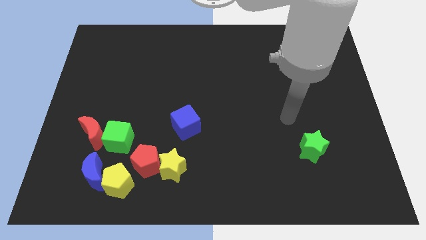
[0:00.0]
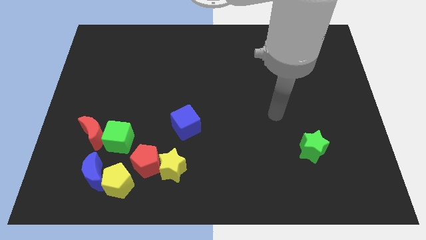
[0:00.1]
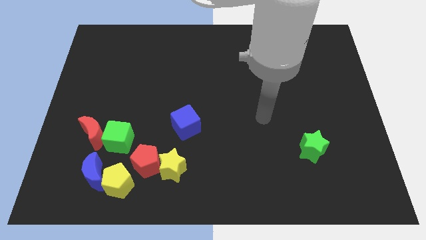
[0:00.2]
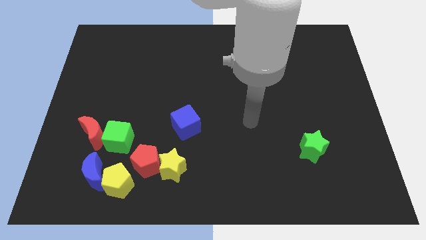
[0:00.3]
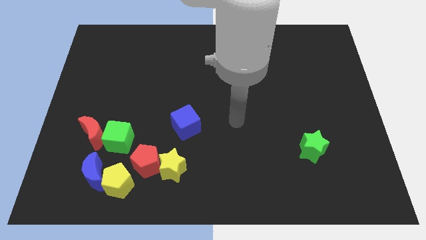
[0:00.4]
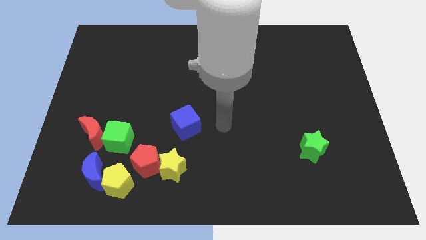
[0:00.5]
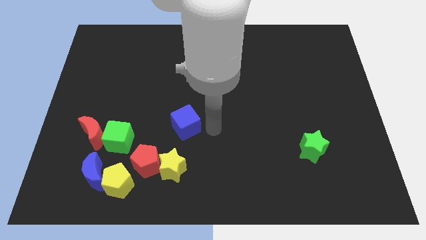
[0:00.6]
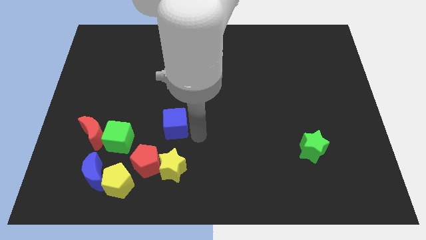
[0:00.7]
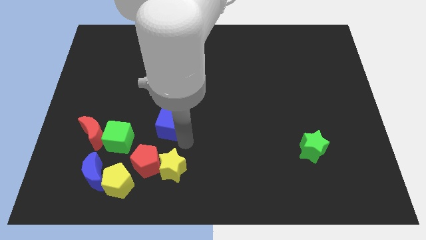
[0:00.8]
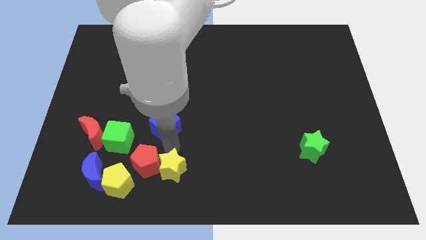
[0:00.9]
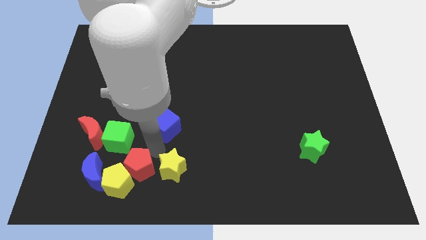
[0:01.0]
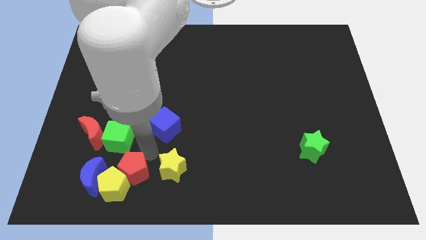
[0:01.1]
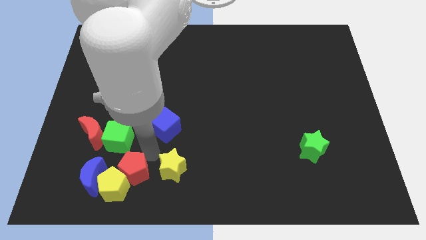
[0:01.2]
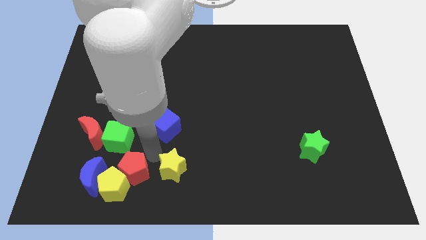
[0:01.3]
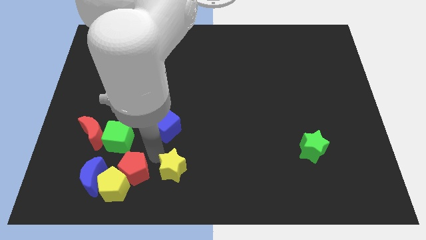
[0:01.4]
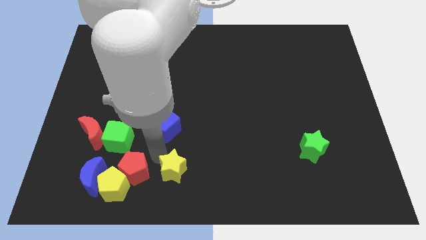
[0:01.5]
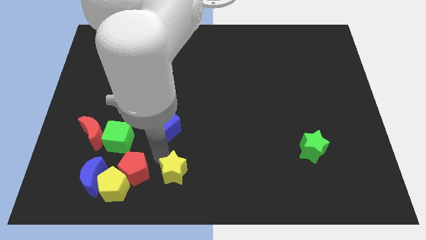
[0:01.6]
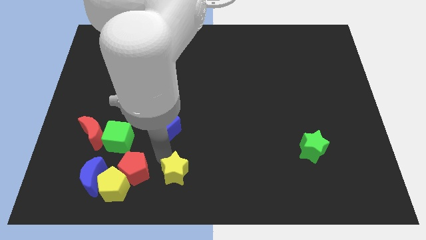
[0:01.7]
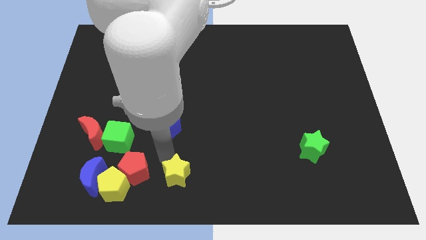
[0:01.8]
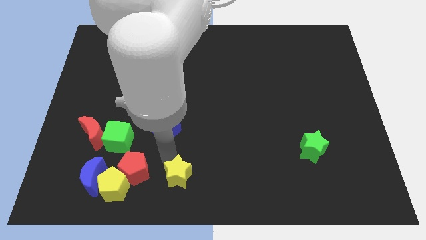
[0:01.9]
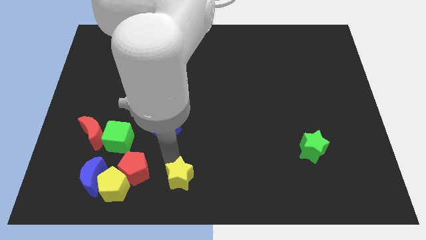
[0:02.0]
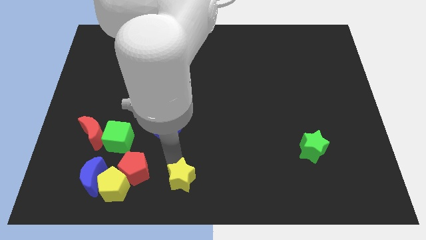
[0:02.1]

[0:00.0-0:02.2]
pull the yellow star apart from the red pentagon

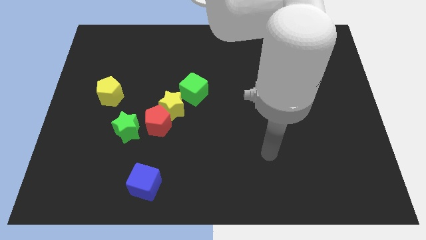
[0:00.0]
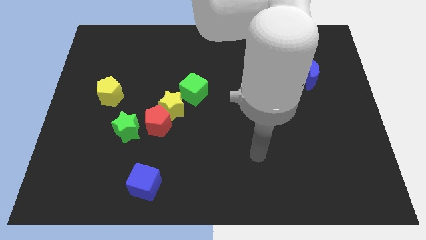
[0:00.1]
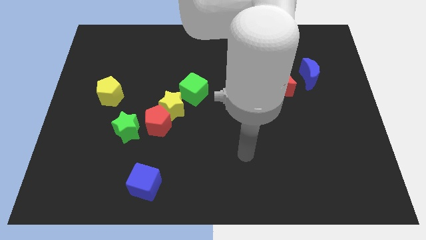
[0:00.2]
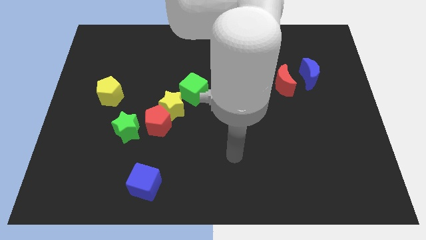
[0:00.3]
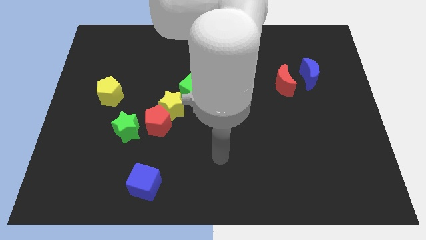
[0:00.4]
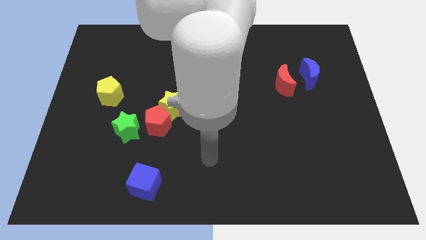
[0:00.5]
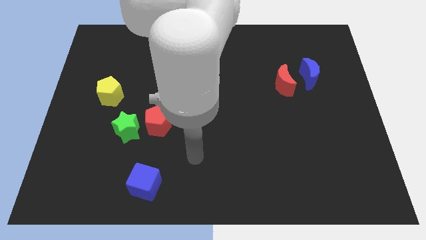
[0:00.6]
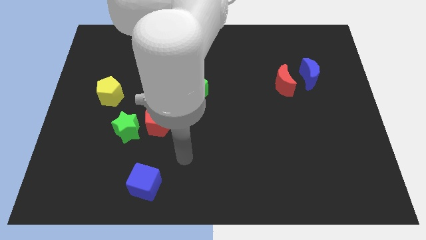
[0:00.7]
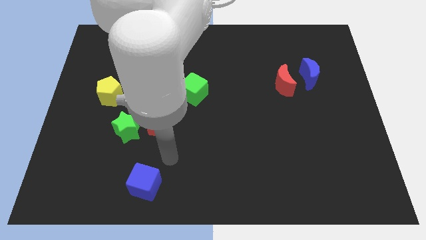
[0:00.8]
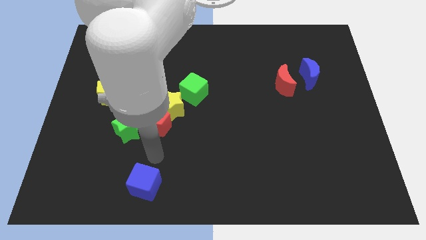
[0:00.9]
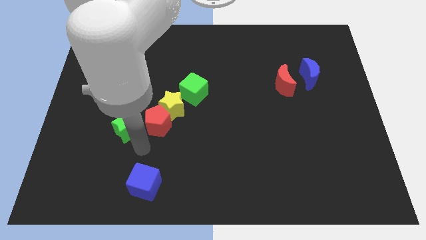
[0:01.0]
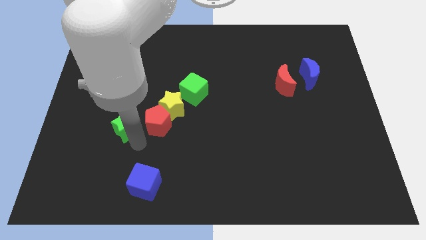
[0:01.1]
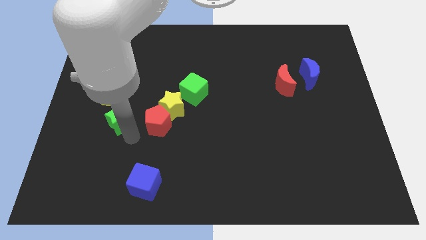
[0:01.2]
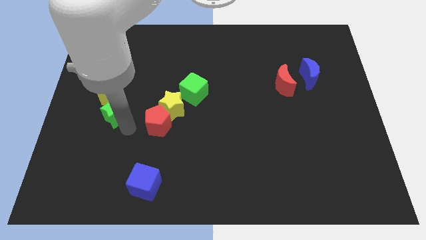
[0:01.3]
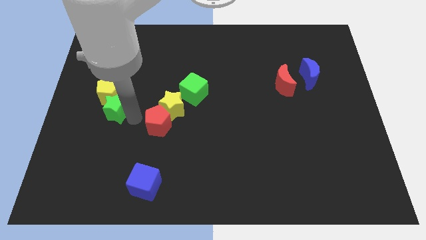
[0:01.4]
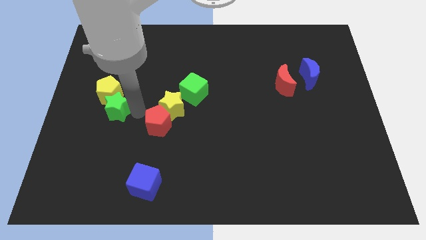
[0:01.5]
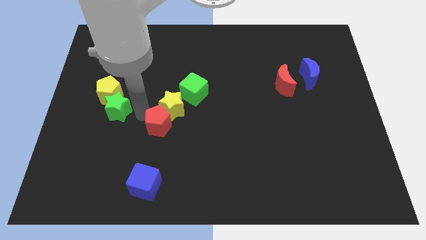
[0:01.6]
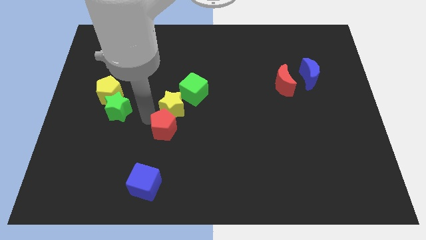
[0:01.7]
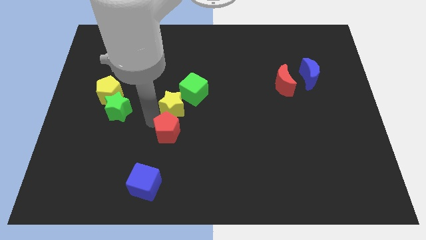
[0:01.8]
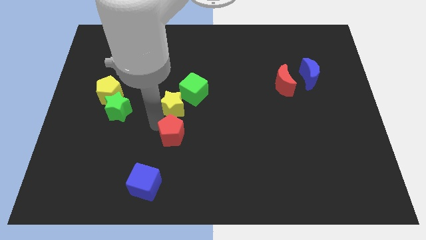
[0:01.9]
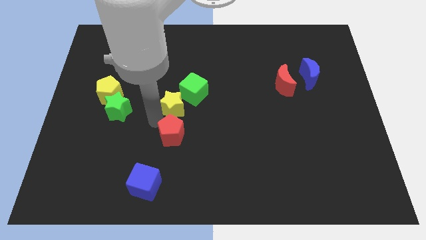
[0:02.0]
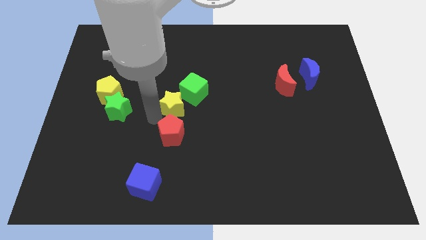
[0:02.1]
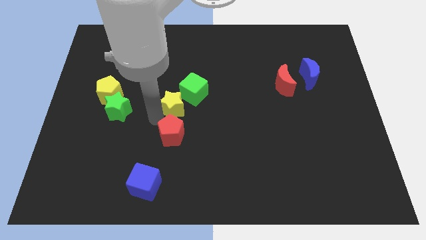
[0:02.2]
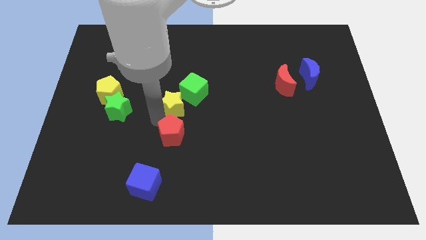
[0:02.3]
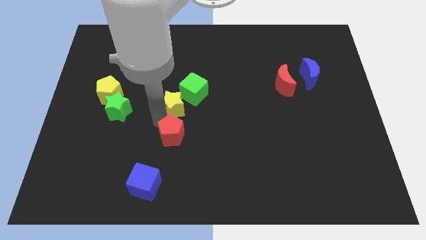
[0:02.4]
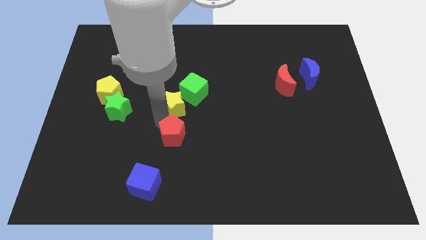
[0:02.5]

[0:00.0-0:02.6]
move the red pentagon away from the yellow star and green star

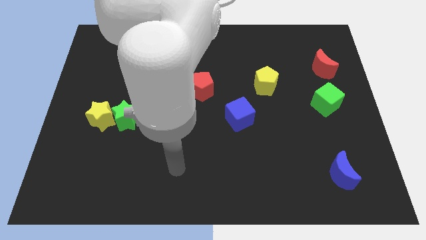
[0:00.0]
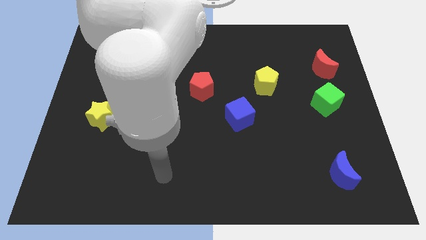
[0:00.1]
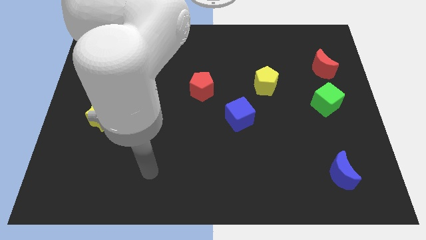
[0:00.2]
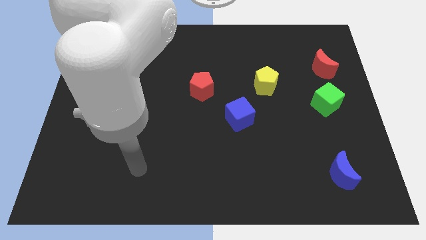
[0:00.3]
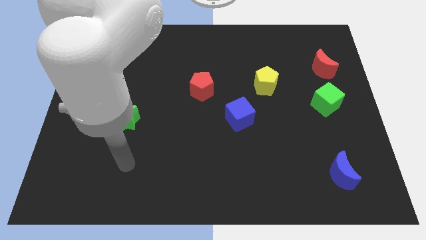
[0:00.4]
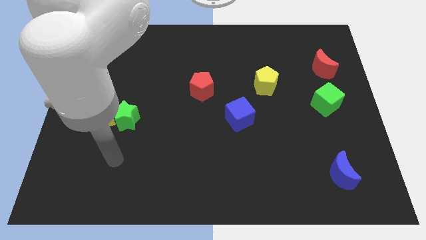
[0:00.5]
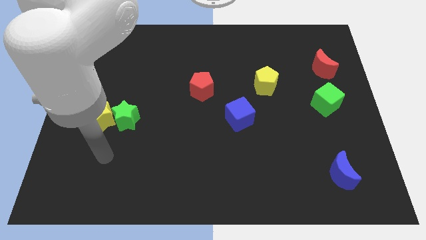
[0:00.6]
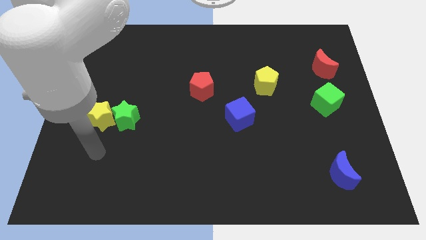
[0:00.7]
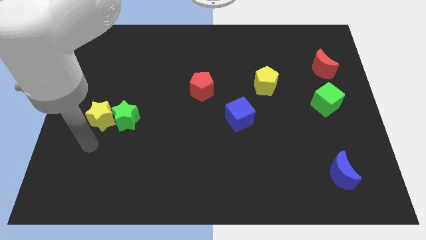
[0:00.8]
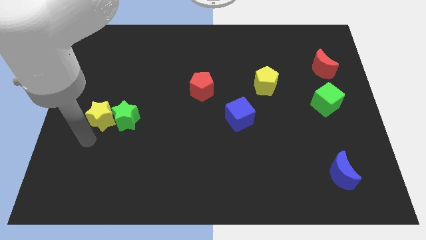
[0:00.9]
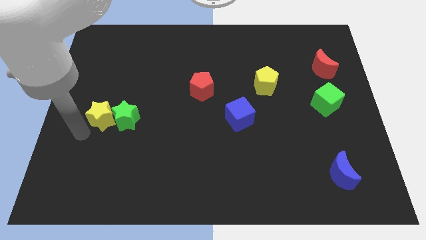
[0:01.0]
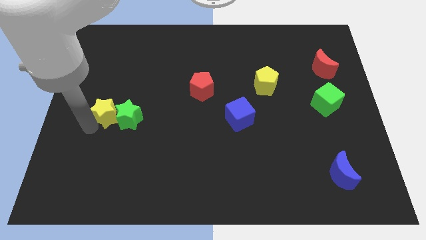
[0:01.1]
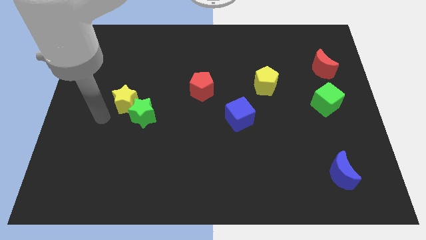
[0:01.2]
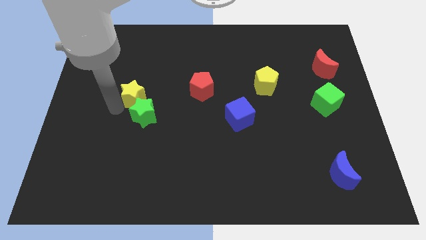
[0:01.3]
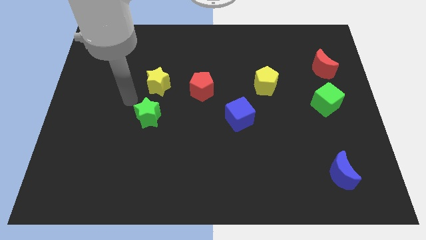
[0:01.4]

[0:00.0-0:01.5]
move the green star away from the yellow star

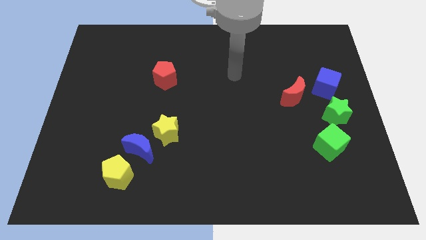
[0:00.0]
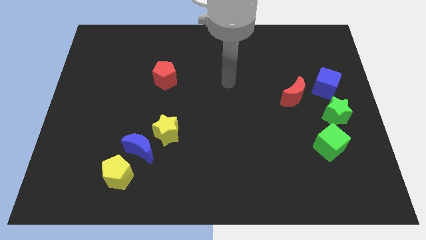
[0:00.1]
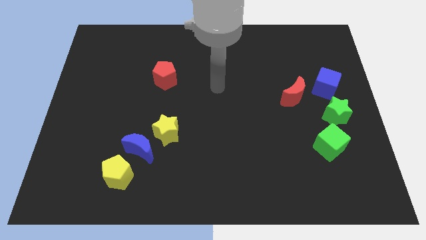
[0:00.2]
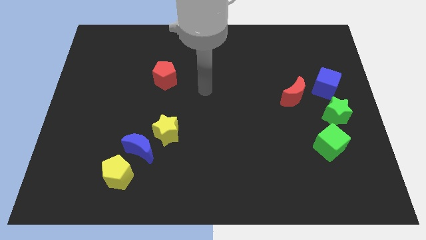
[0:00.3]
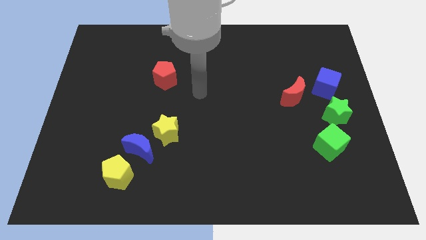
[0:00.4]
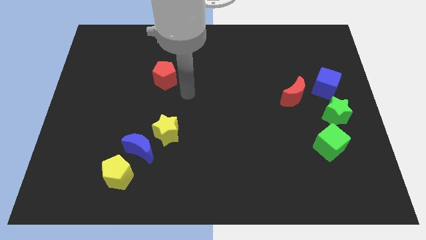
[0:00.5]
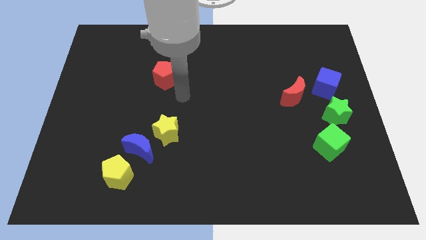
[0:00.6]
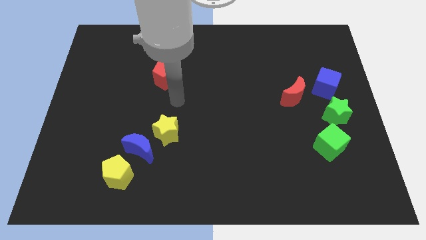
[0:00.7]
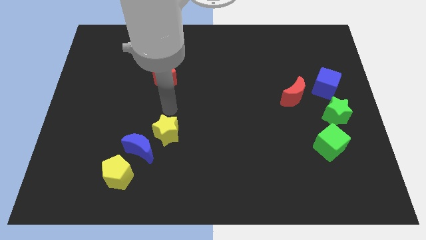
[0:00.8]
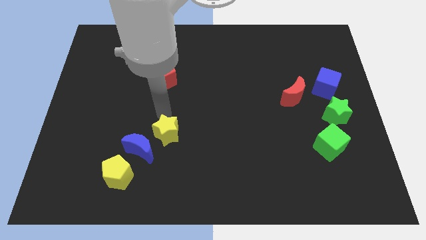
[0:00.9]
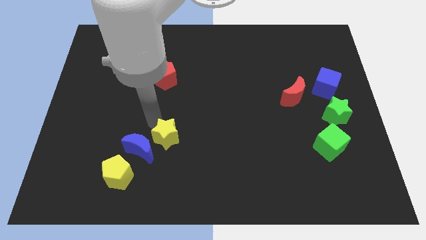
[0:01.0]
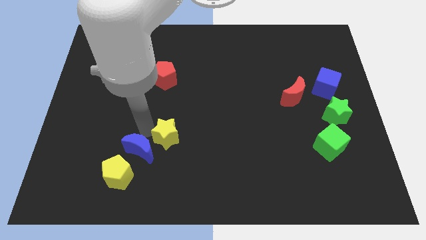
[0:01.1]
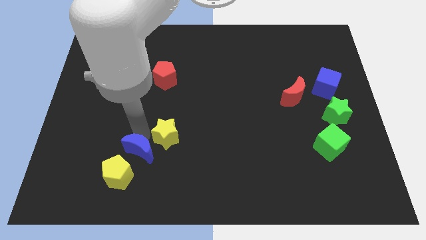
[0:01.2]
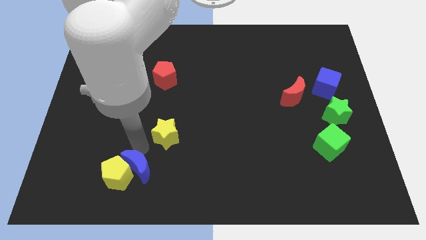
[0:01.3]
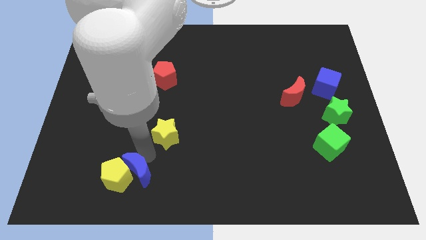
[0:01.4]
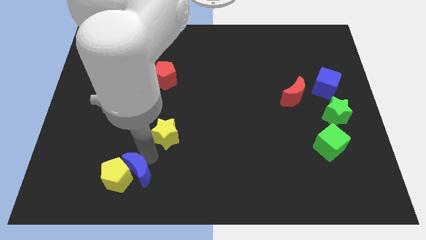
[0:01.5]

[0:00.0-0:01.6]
pull the yellow star apart from the blue moon

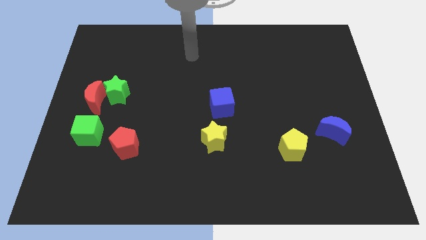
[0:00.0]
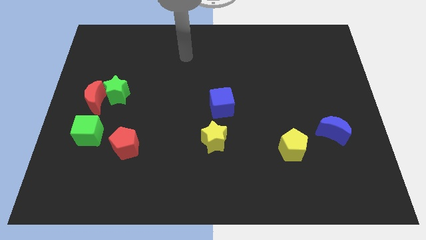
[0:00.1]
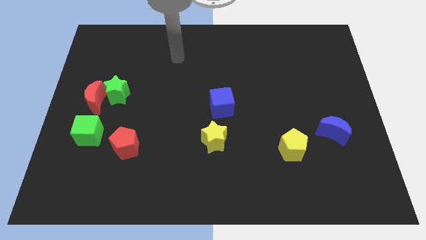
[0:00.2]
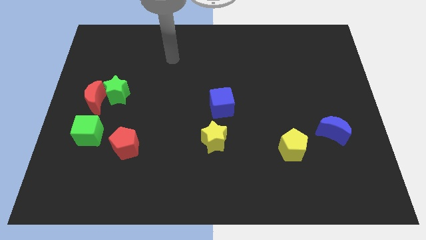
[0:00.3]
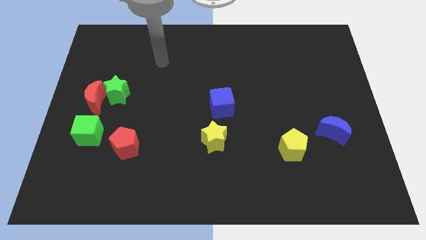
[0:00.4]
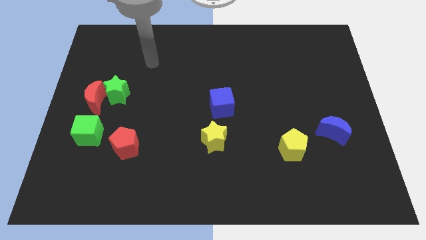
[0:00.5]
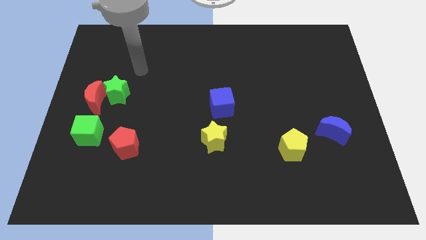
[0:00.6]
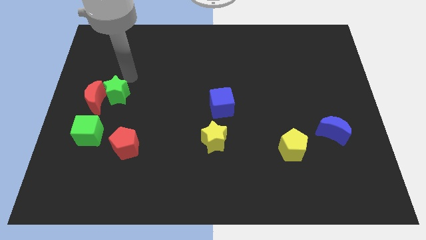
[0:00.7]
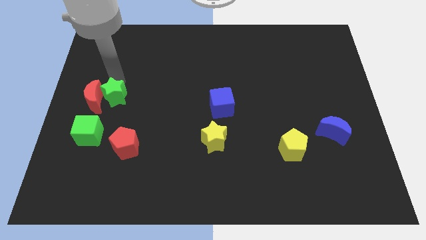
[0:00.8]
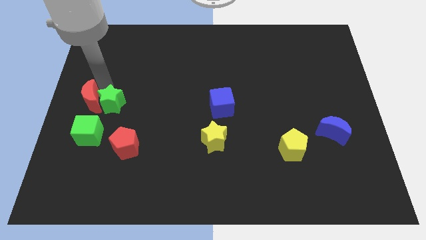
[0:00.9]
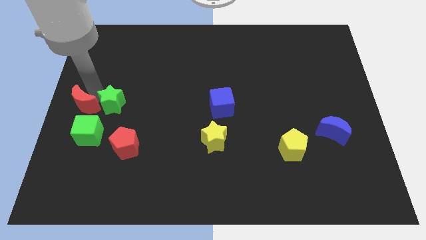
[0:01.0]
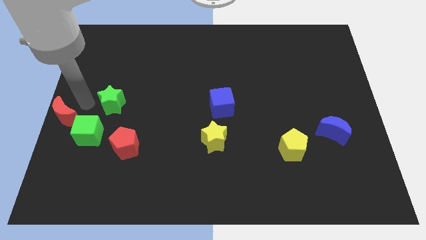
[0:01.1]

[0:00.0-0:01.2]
separate the green star from the red moon

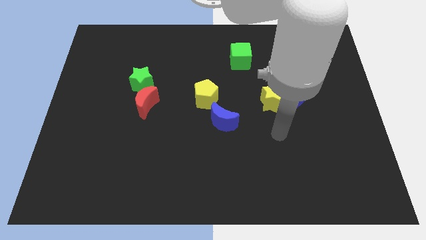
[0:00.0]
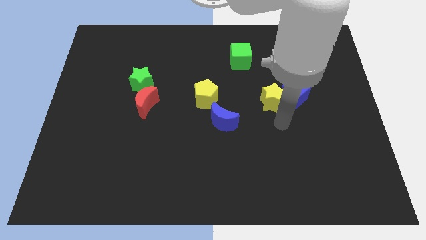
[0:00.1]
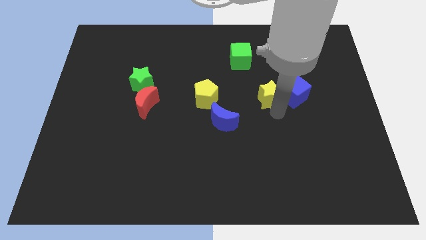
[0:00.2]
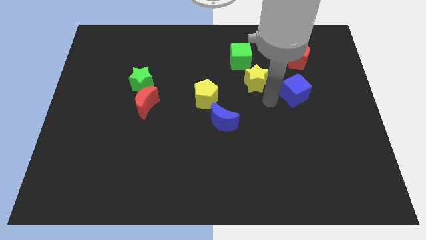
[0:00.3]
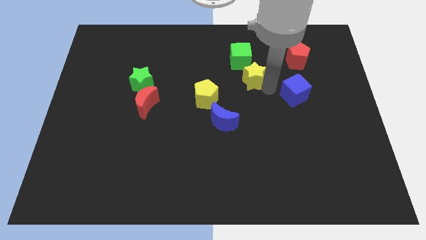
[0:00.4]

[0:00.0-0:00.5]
pull the blue cube apart from the yellow star
